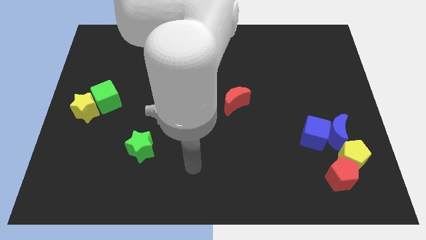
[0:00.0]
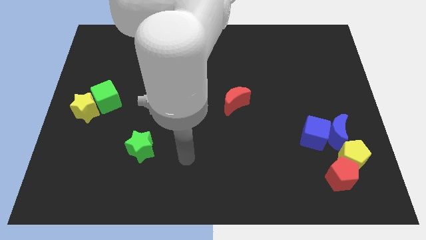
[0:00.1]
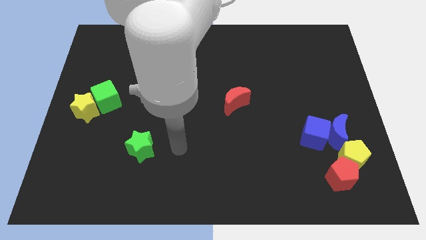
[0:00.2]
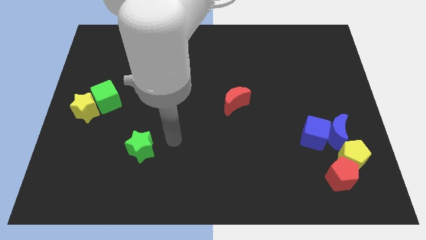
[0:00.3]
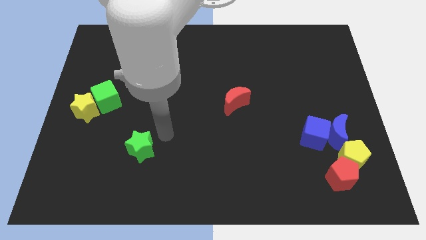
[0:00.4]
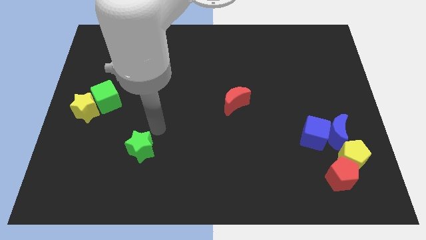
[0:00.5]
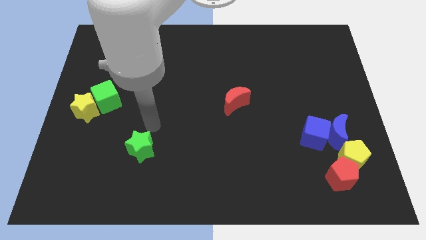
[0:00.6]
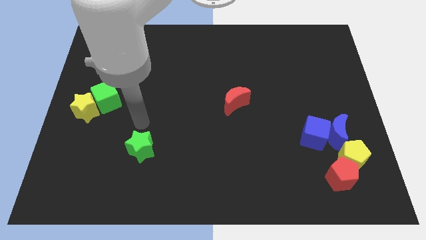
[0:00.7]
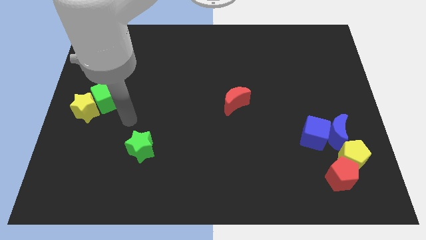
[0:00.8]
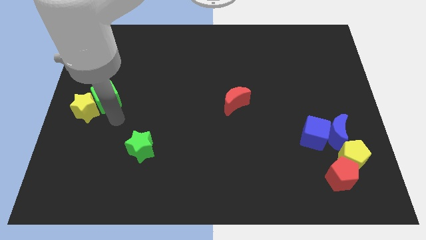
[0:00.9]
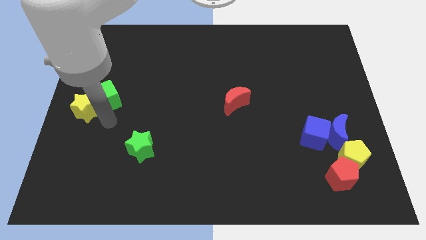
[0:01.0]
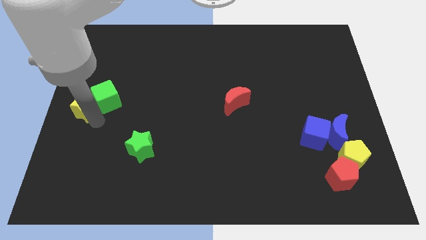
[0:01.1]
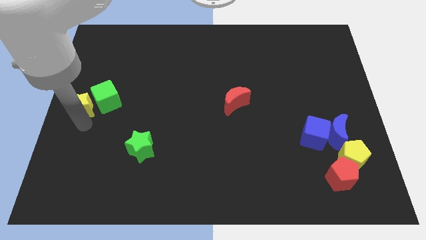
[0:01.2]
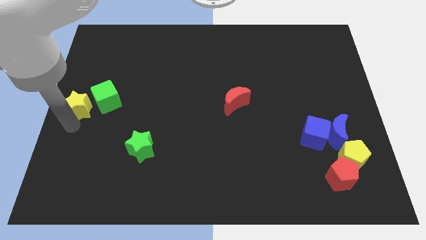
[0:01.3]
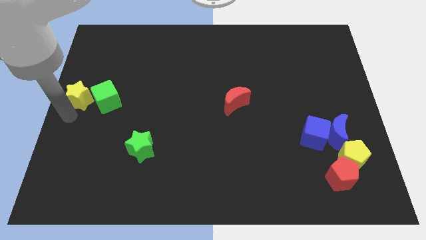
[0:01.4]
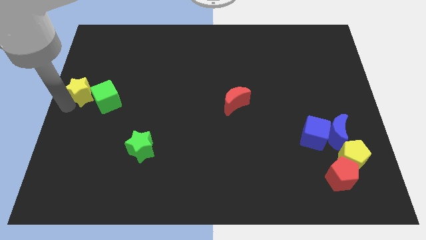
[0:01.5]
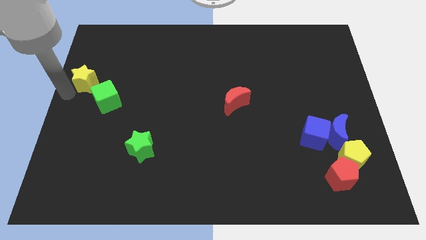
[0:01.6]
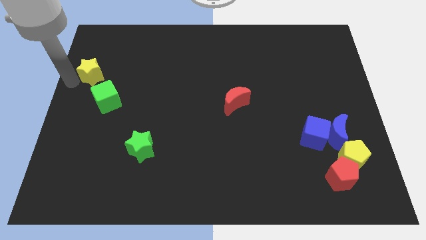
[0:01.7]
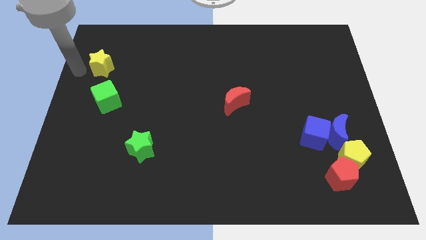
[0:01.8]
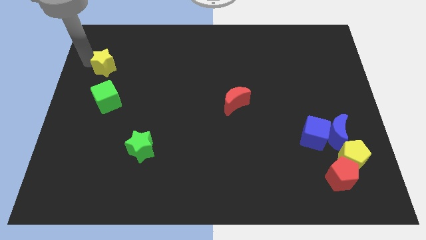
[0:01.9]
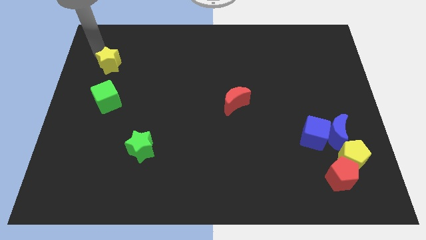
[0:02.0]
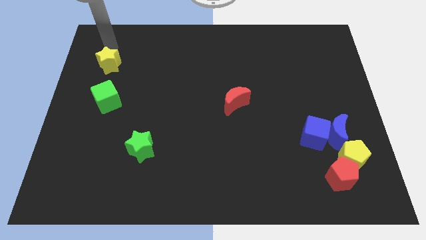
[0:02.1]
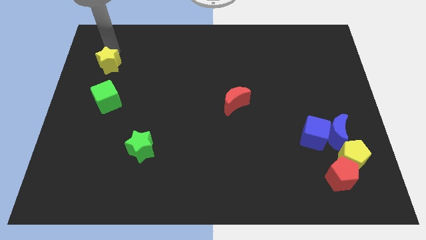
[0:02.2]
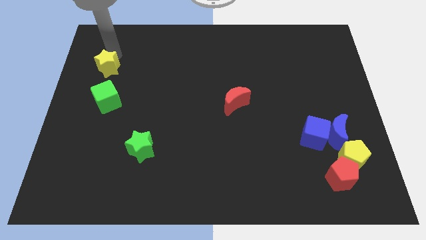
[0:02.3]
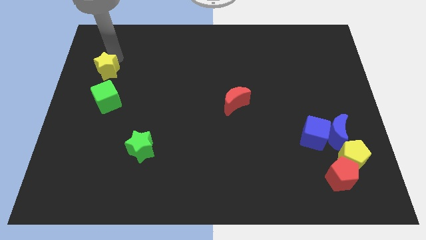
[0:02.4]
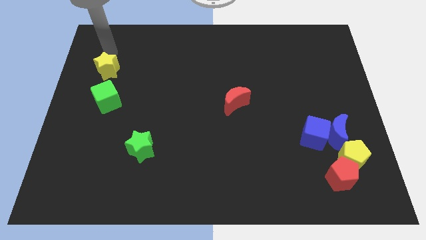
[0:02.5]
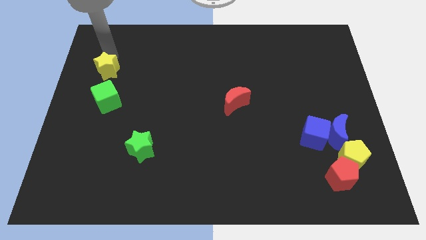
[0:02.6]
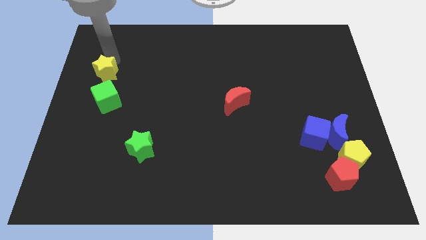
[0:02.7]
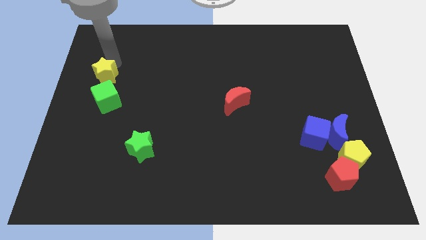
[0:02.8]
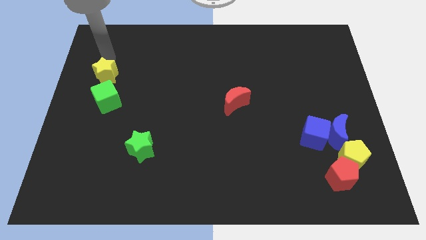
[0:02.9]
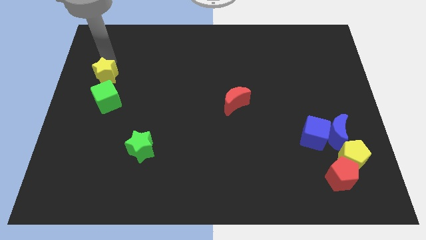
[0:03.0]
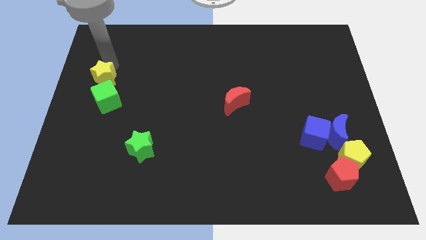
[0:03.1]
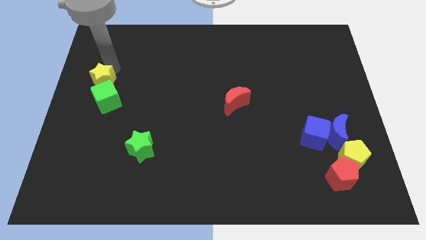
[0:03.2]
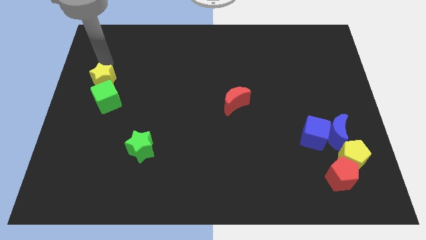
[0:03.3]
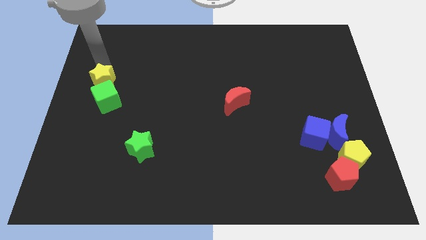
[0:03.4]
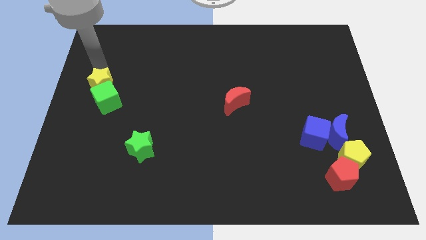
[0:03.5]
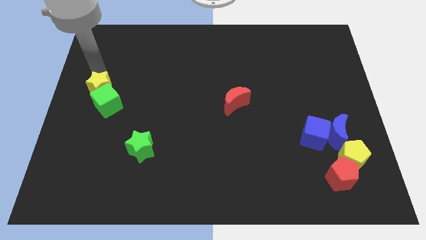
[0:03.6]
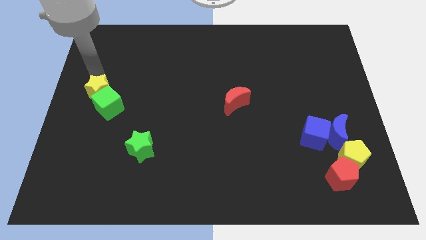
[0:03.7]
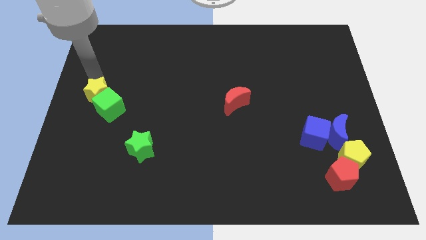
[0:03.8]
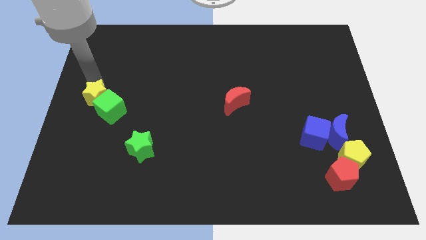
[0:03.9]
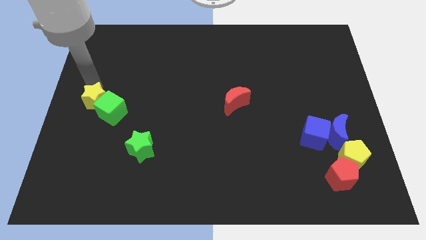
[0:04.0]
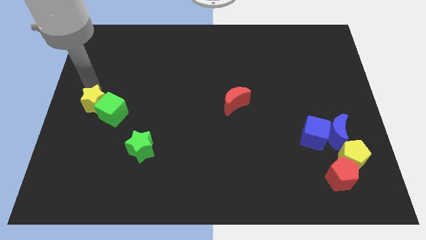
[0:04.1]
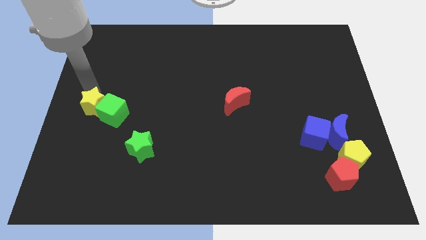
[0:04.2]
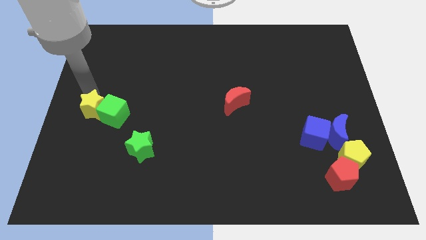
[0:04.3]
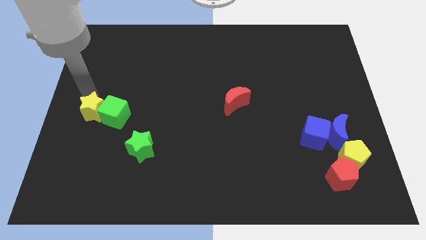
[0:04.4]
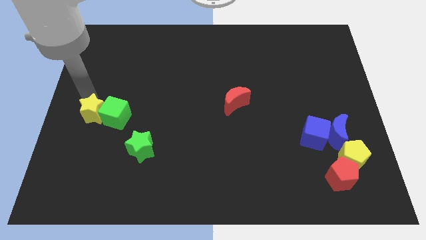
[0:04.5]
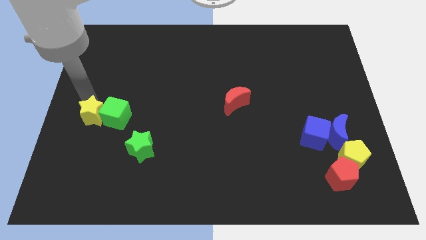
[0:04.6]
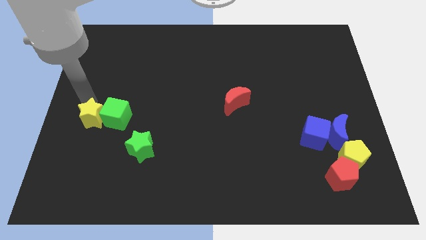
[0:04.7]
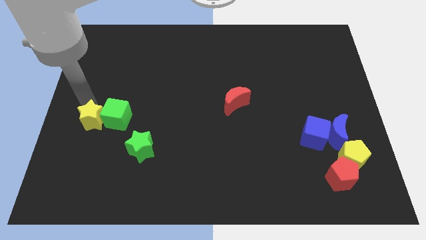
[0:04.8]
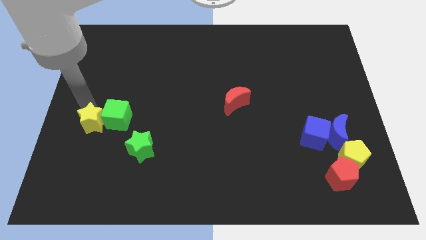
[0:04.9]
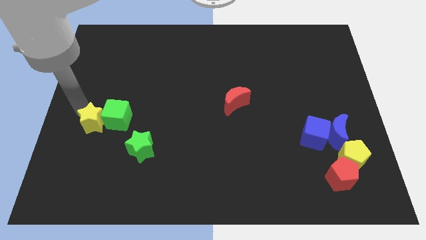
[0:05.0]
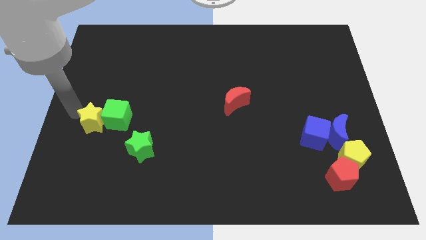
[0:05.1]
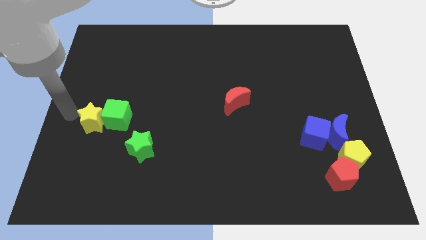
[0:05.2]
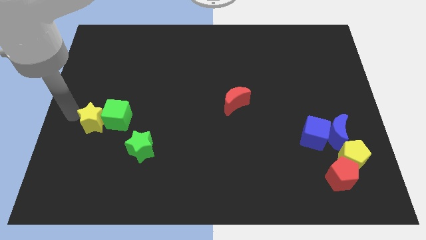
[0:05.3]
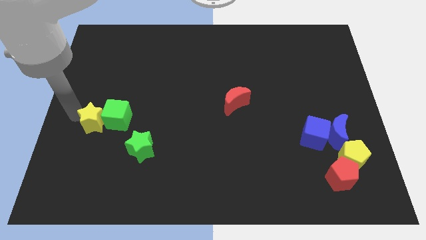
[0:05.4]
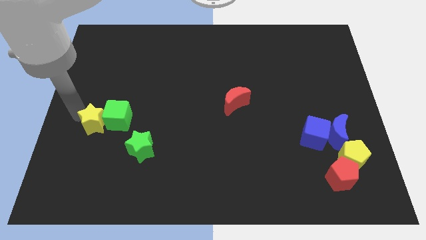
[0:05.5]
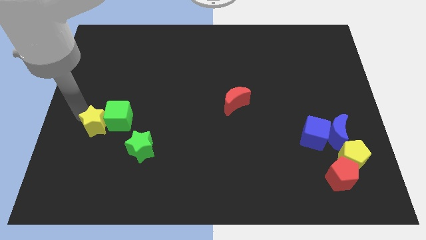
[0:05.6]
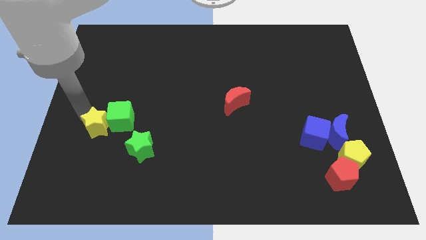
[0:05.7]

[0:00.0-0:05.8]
push the yellow star diagonally up and to the left of the green star

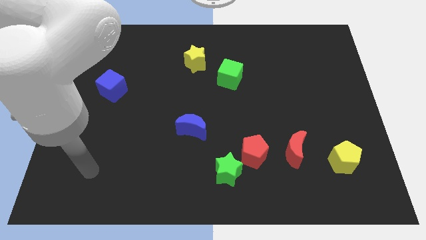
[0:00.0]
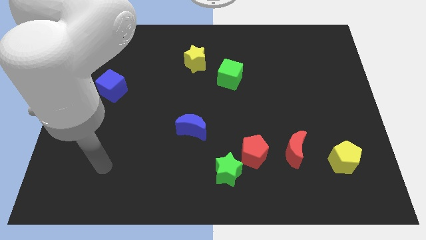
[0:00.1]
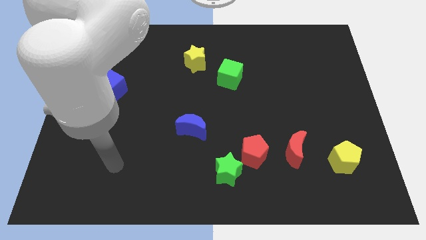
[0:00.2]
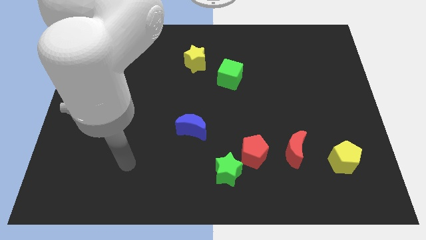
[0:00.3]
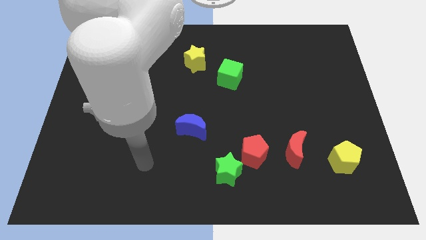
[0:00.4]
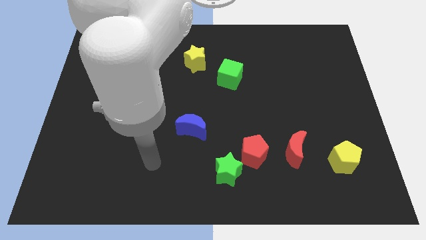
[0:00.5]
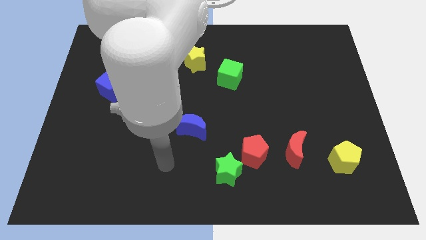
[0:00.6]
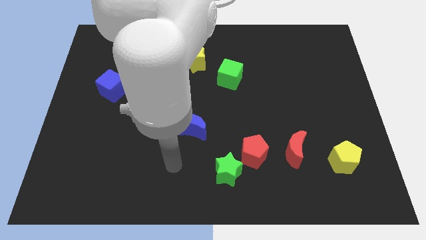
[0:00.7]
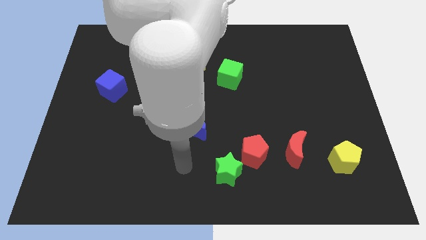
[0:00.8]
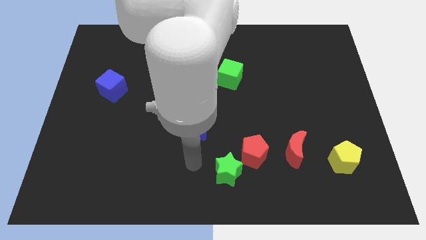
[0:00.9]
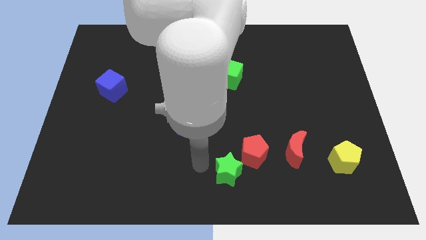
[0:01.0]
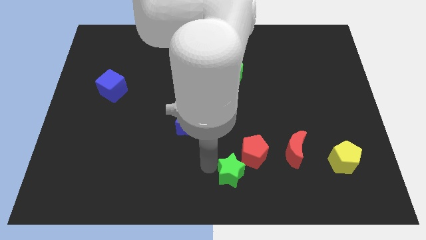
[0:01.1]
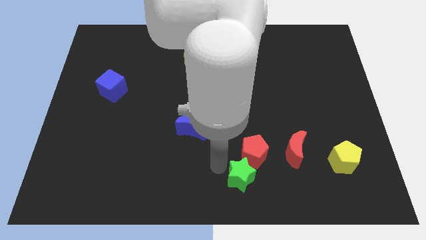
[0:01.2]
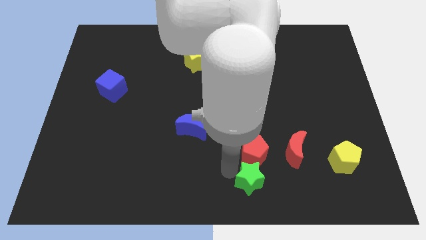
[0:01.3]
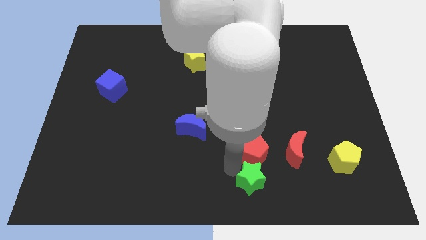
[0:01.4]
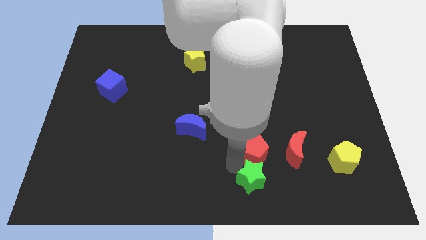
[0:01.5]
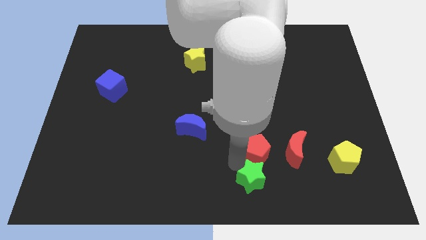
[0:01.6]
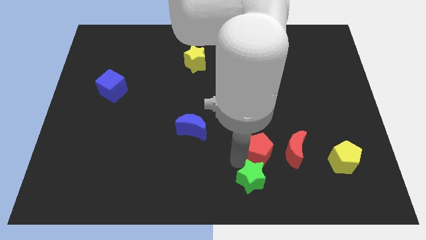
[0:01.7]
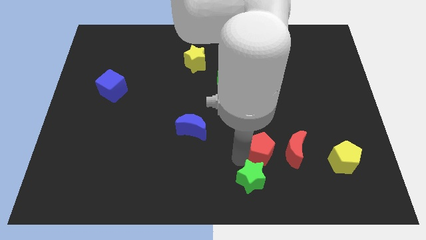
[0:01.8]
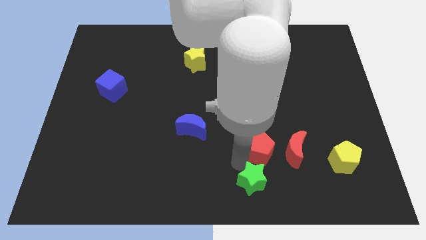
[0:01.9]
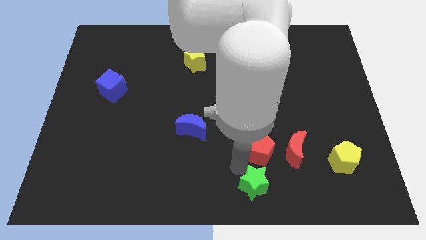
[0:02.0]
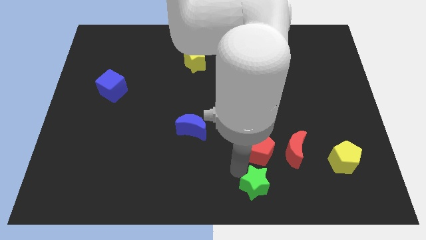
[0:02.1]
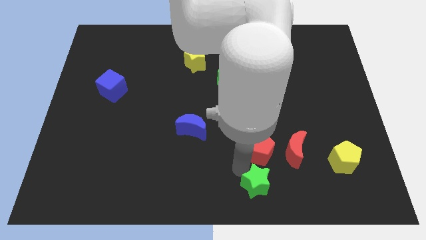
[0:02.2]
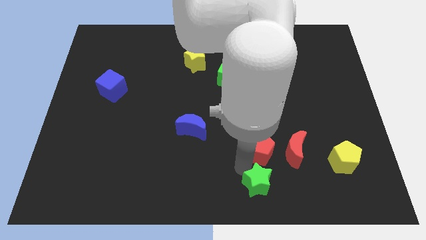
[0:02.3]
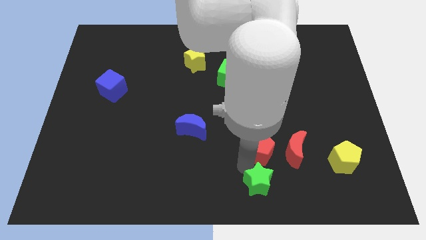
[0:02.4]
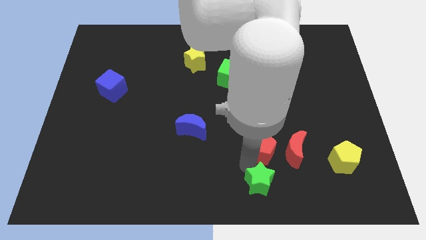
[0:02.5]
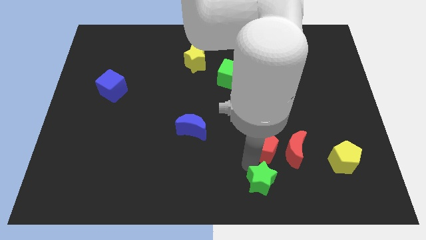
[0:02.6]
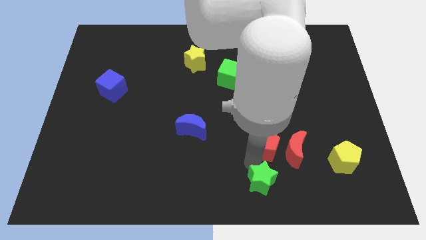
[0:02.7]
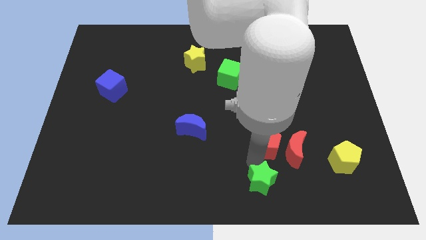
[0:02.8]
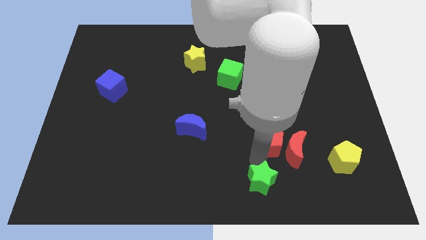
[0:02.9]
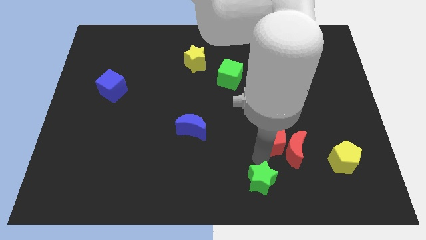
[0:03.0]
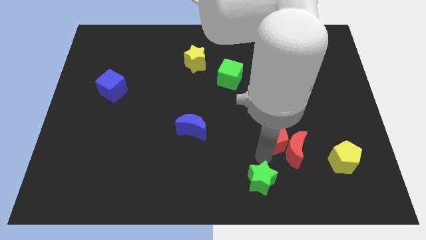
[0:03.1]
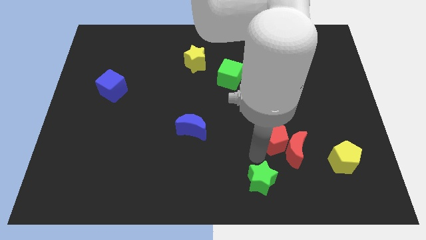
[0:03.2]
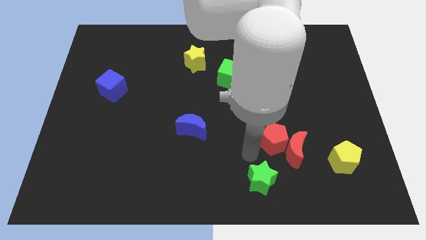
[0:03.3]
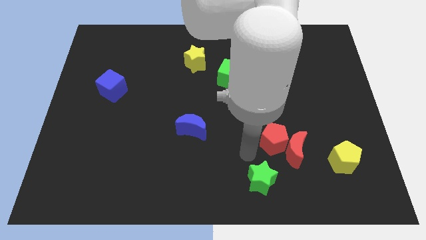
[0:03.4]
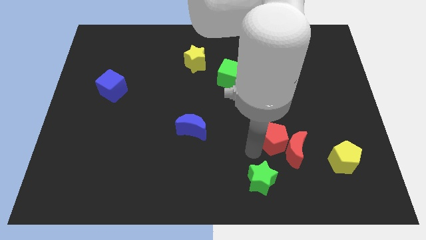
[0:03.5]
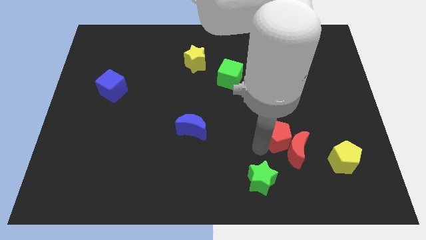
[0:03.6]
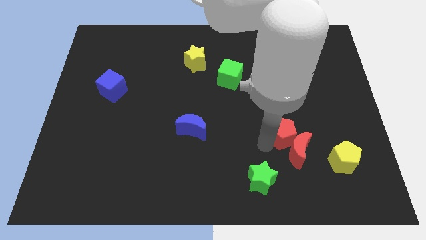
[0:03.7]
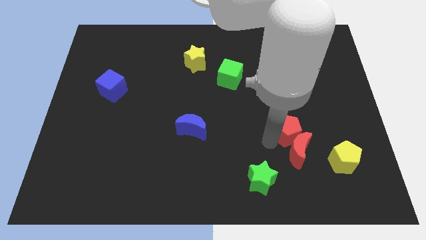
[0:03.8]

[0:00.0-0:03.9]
push the red pentagon to the top right of the red moon
